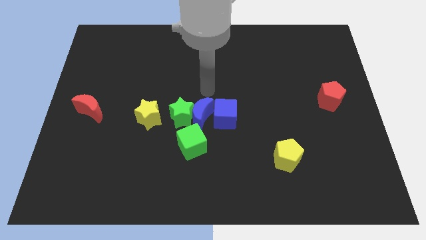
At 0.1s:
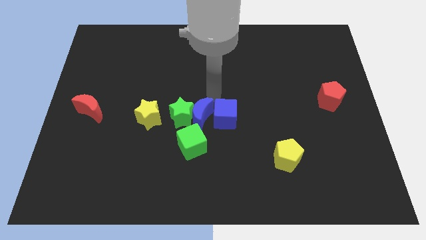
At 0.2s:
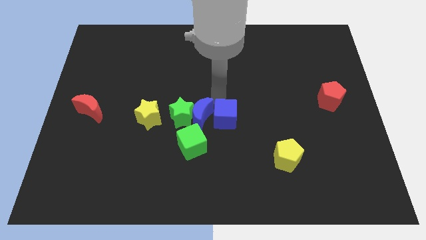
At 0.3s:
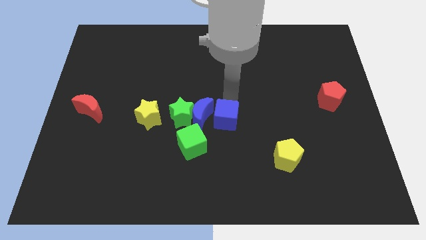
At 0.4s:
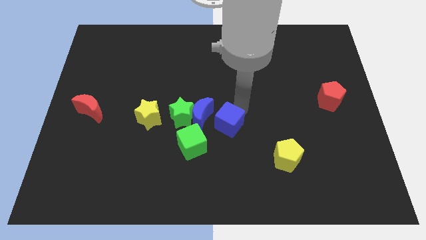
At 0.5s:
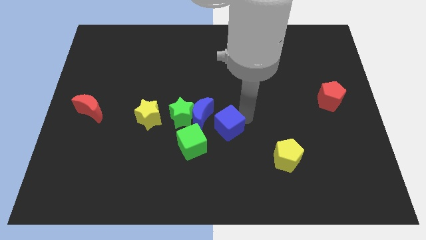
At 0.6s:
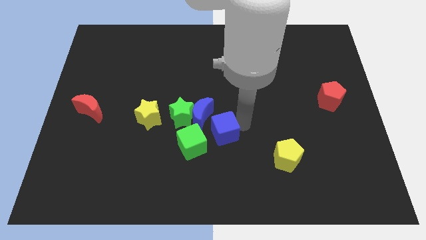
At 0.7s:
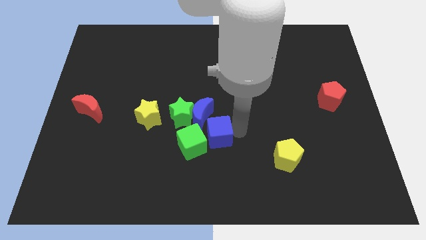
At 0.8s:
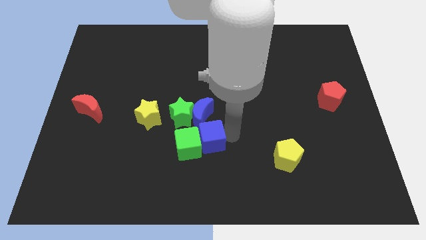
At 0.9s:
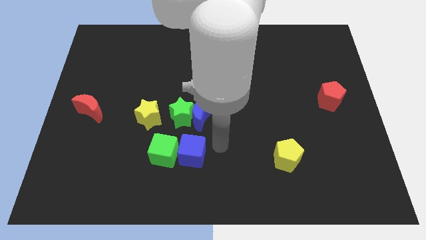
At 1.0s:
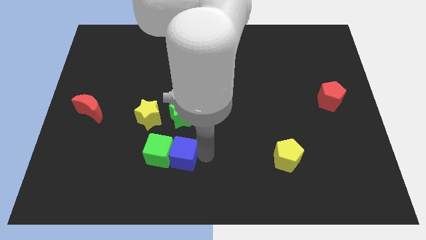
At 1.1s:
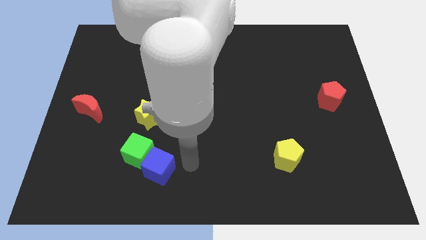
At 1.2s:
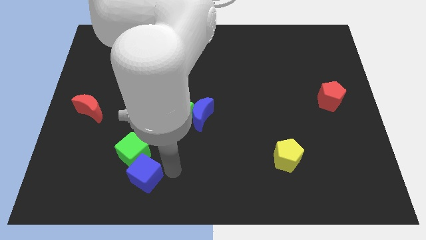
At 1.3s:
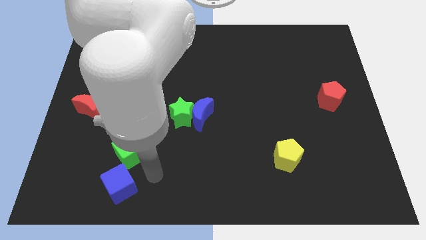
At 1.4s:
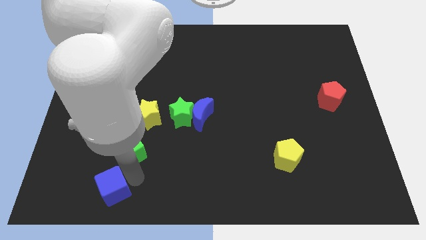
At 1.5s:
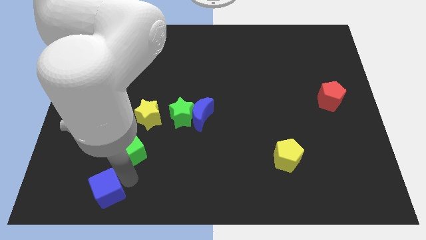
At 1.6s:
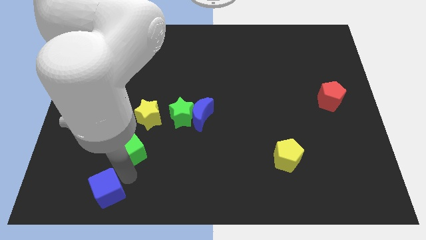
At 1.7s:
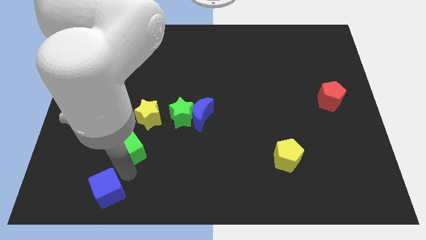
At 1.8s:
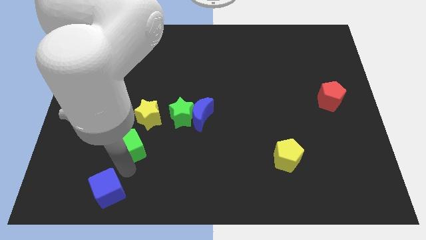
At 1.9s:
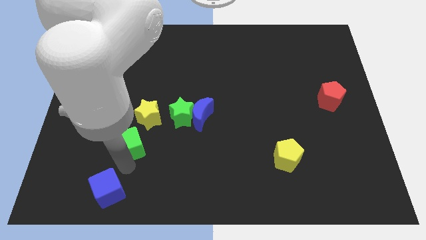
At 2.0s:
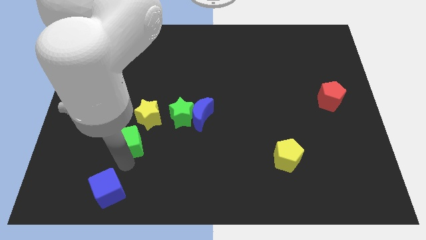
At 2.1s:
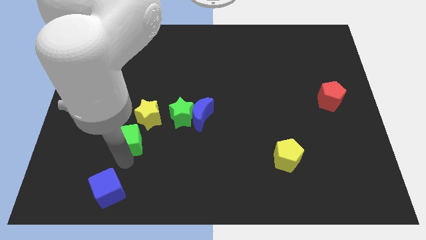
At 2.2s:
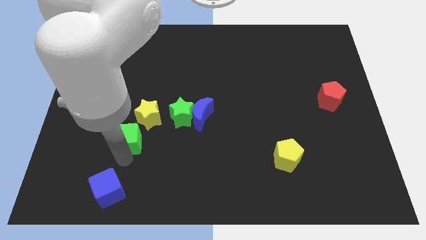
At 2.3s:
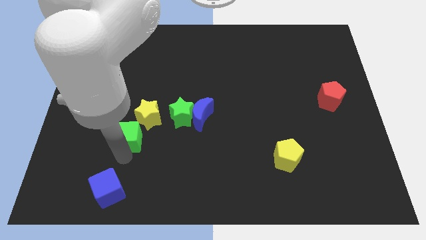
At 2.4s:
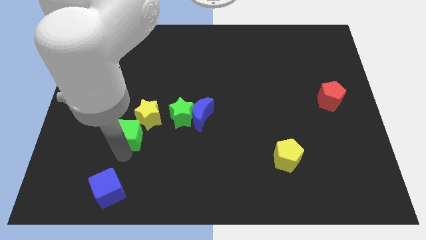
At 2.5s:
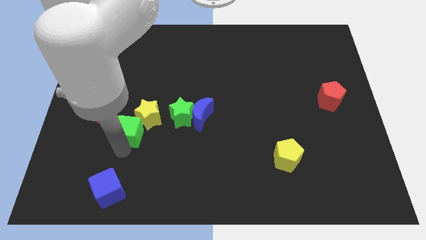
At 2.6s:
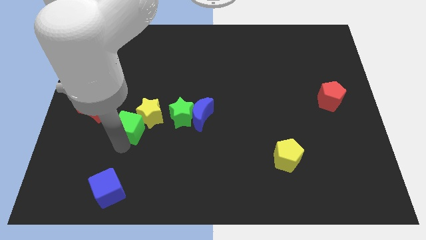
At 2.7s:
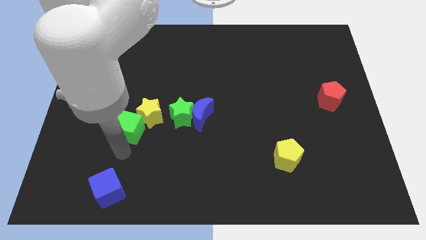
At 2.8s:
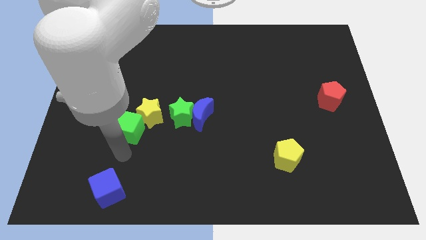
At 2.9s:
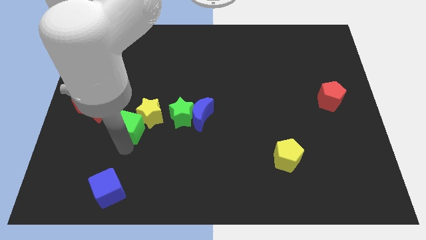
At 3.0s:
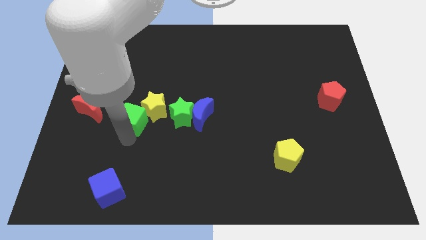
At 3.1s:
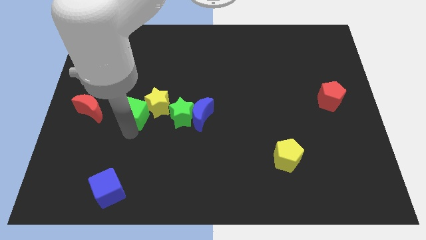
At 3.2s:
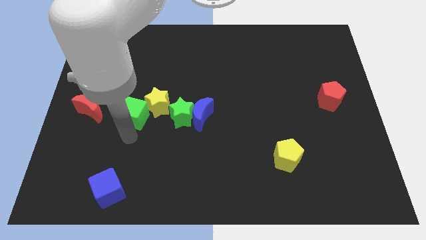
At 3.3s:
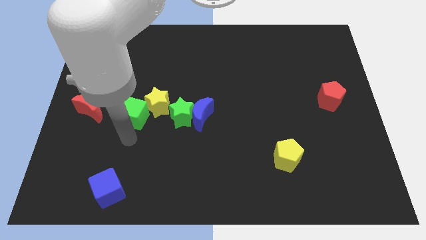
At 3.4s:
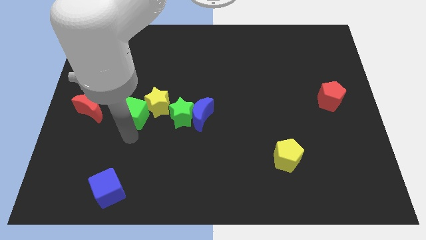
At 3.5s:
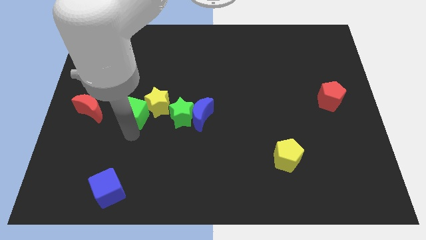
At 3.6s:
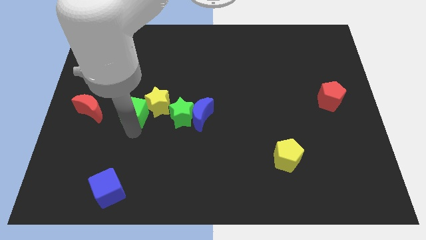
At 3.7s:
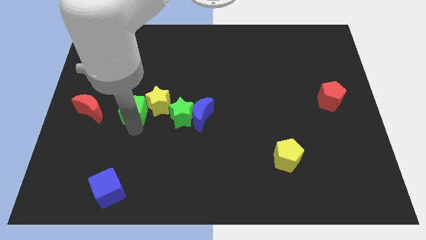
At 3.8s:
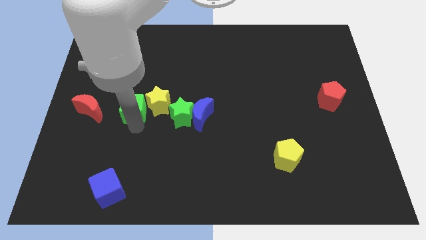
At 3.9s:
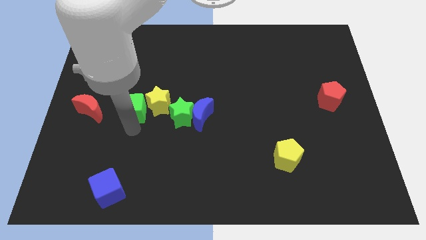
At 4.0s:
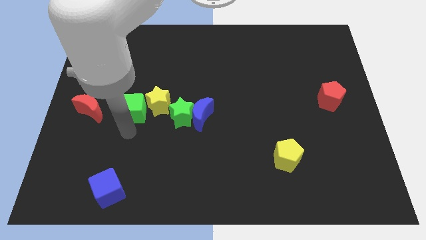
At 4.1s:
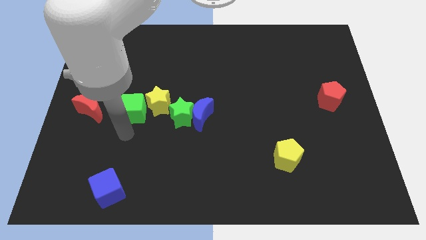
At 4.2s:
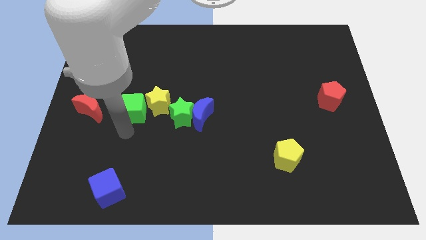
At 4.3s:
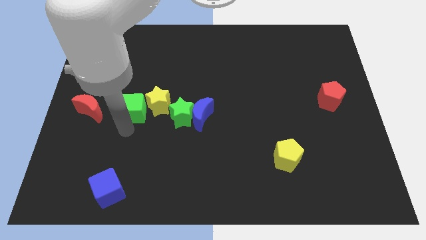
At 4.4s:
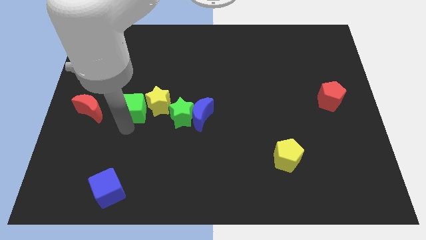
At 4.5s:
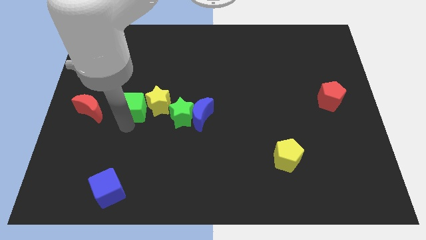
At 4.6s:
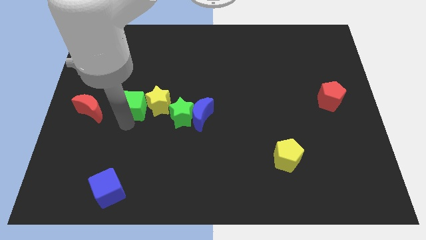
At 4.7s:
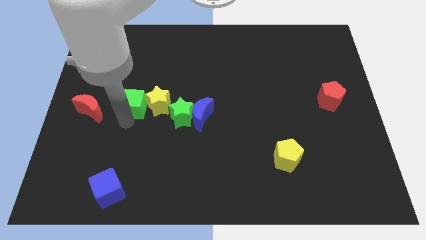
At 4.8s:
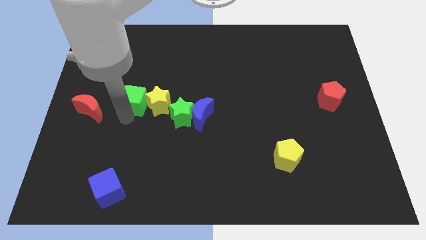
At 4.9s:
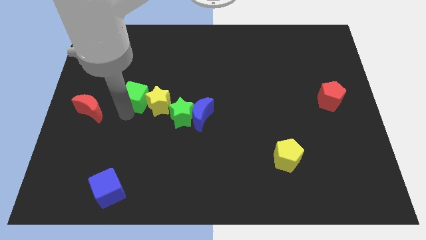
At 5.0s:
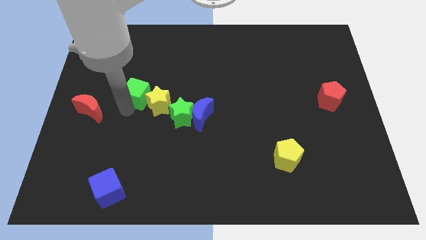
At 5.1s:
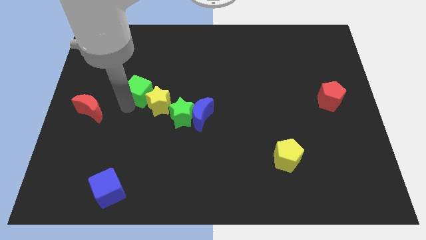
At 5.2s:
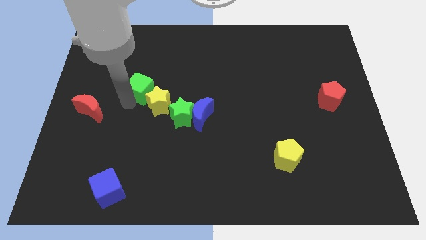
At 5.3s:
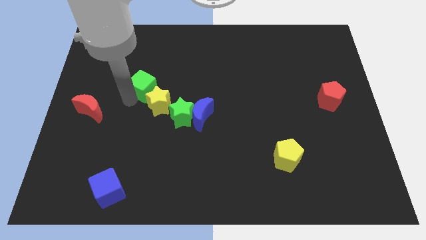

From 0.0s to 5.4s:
push the green cube to the top of the yellow star

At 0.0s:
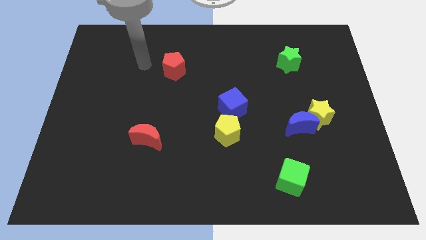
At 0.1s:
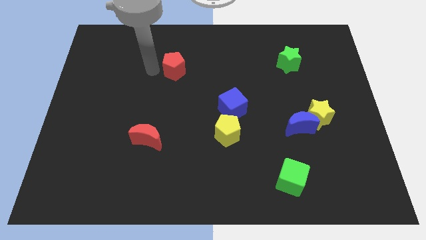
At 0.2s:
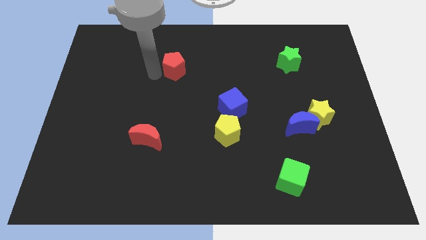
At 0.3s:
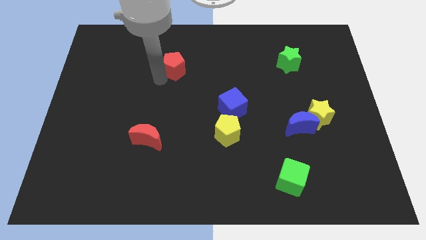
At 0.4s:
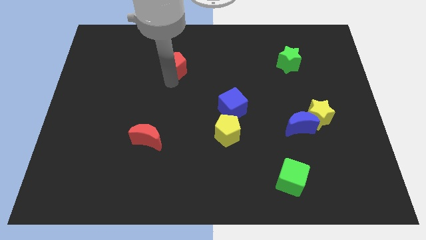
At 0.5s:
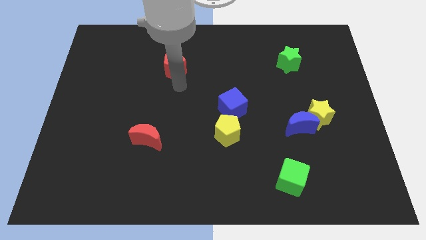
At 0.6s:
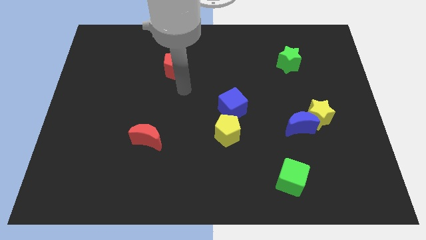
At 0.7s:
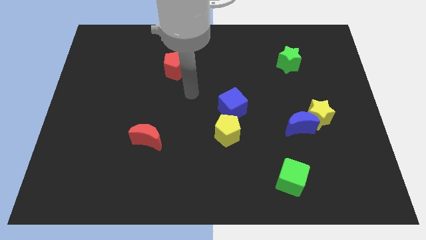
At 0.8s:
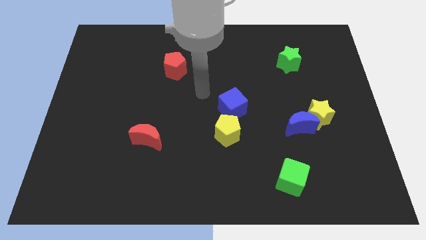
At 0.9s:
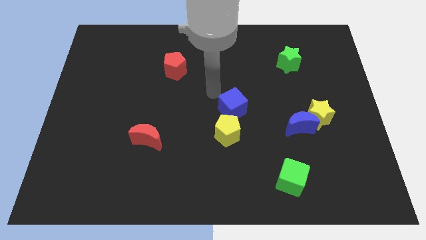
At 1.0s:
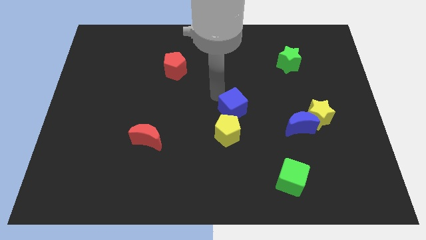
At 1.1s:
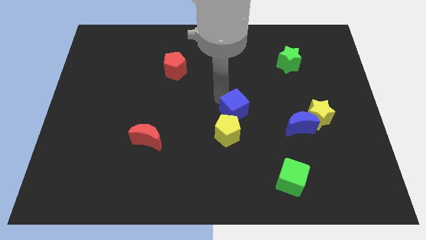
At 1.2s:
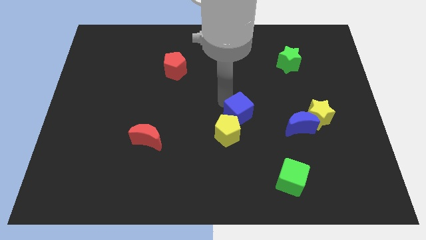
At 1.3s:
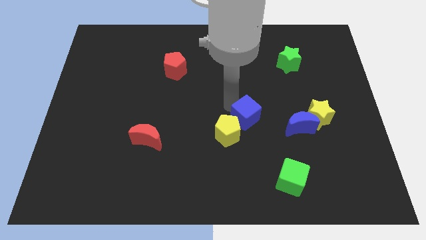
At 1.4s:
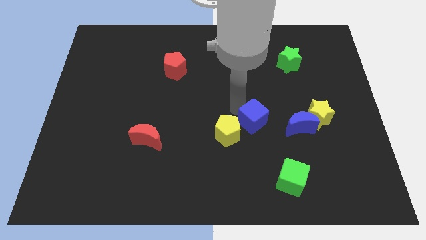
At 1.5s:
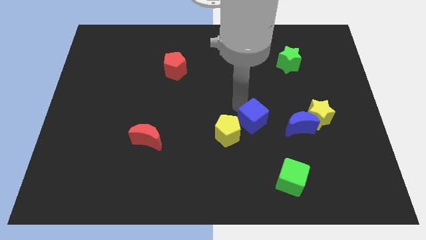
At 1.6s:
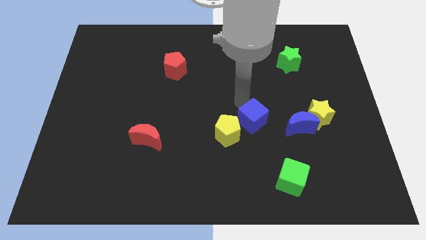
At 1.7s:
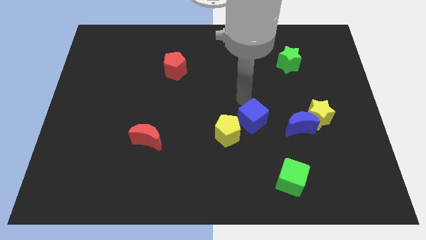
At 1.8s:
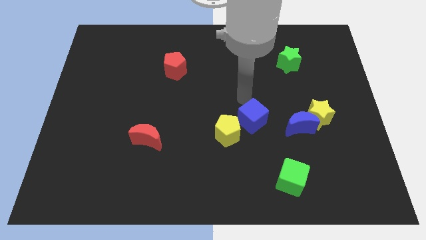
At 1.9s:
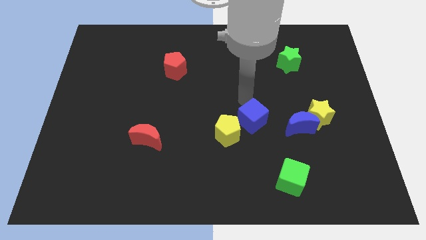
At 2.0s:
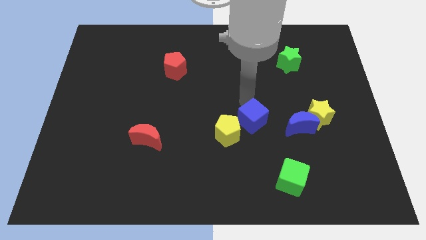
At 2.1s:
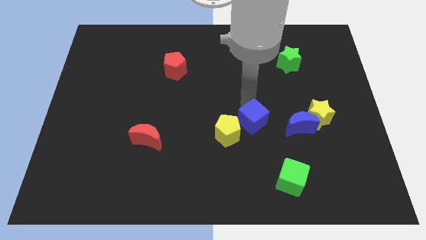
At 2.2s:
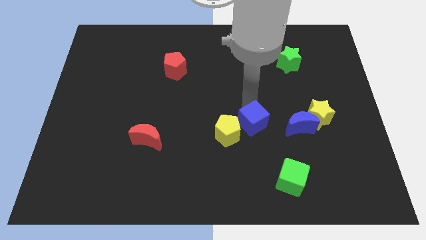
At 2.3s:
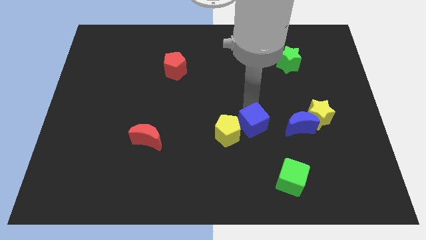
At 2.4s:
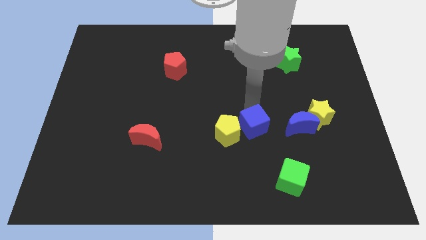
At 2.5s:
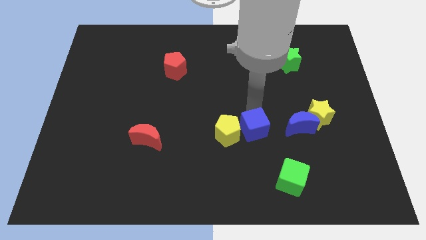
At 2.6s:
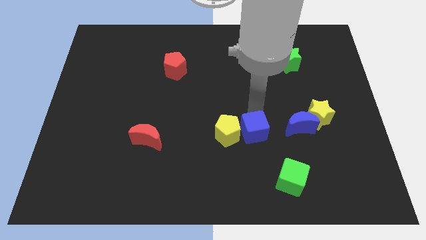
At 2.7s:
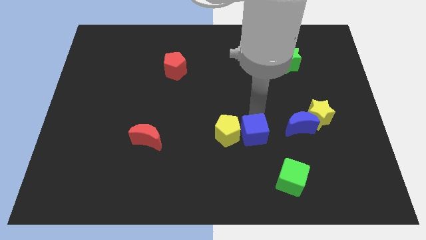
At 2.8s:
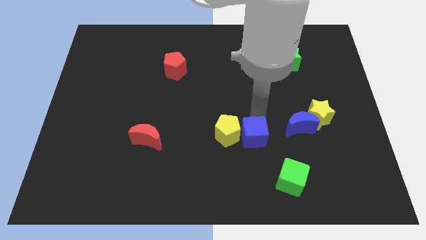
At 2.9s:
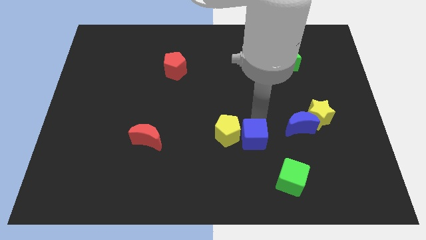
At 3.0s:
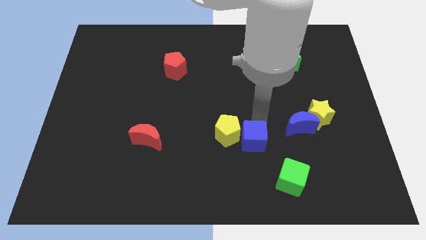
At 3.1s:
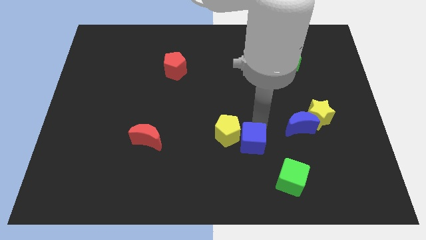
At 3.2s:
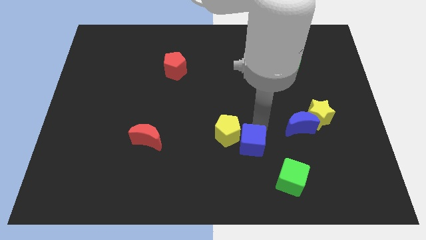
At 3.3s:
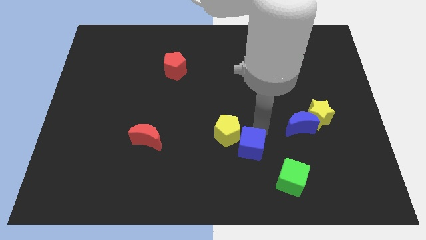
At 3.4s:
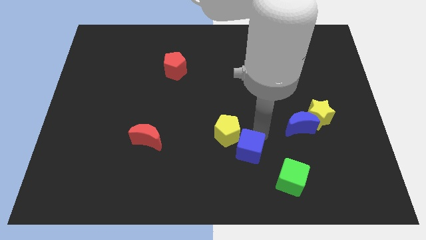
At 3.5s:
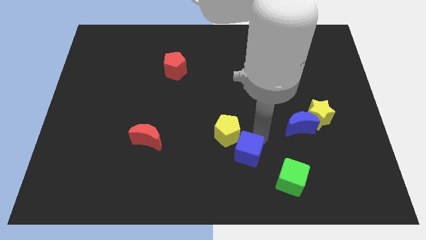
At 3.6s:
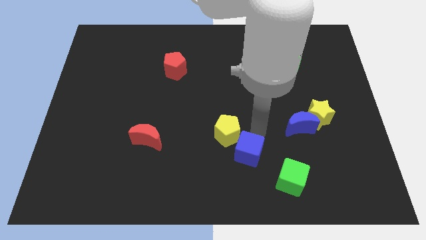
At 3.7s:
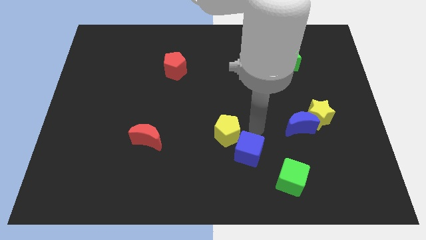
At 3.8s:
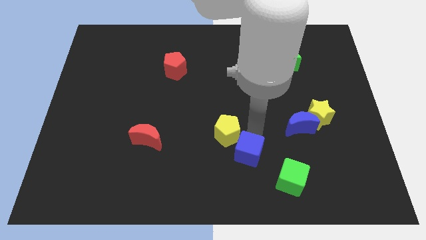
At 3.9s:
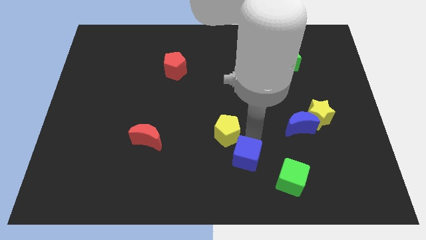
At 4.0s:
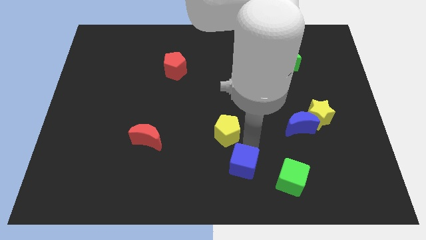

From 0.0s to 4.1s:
put the blue cube to the left side of the green cube
